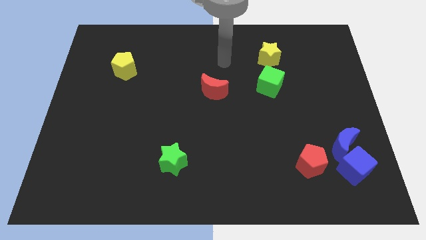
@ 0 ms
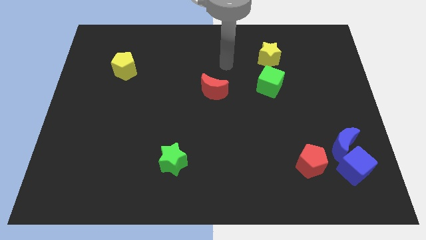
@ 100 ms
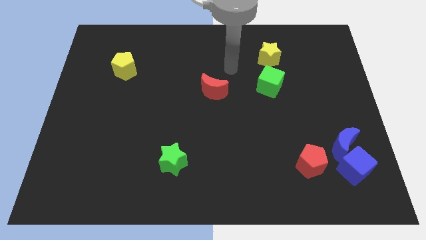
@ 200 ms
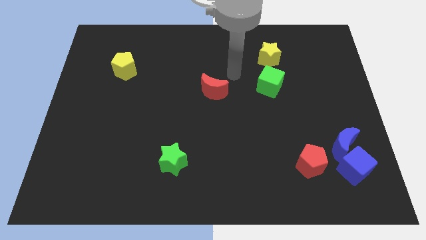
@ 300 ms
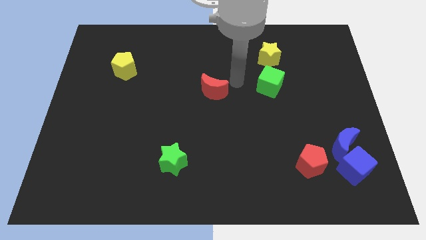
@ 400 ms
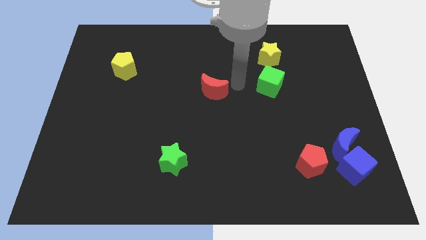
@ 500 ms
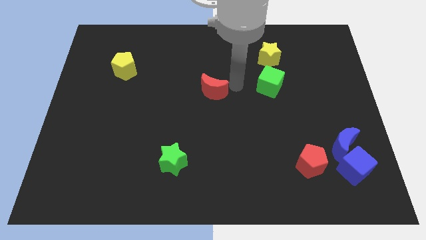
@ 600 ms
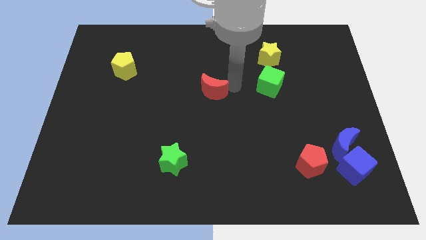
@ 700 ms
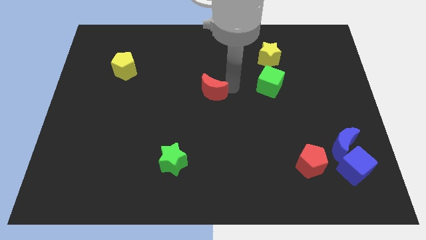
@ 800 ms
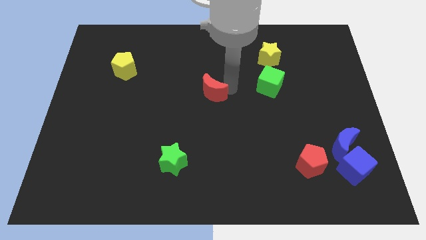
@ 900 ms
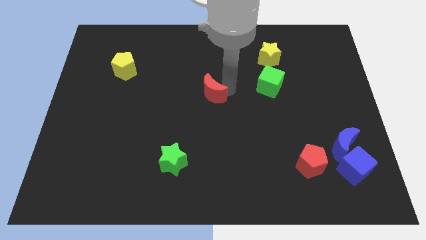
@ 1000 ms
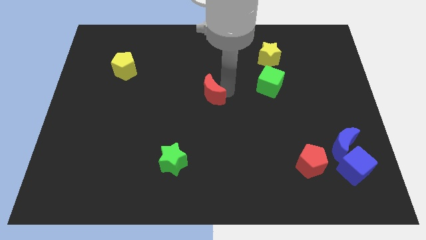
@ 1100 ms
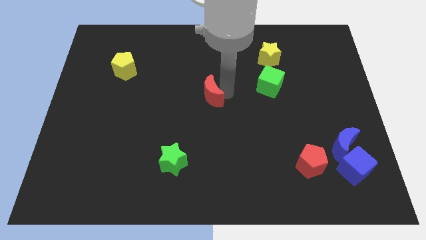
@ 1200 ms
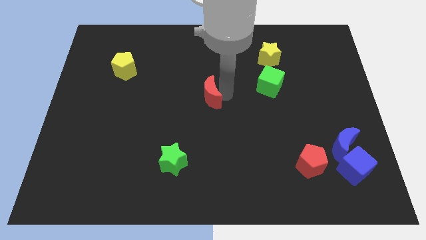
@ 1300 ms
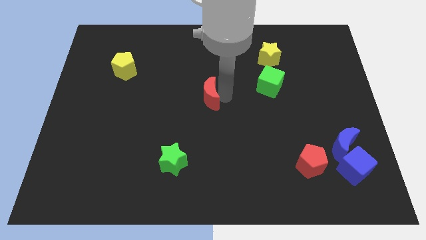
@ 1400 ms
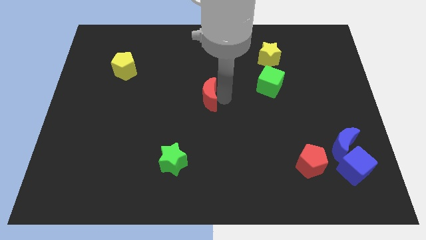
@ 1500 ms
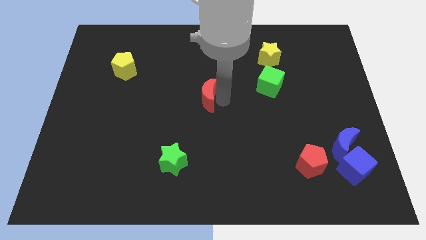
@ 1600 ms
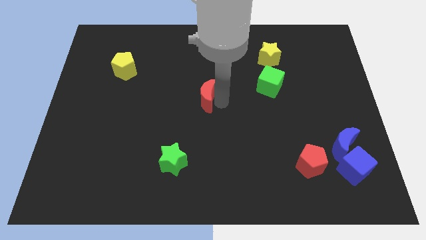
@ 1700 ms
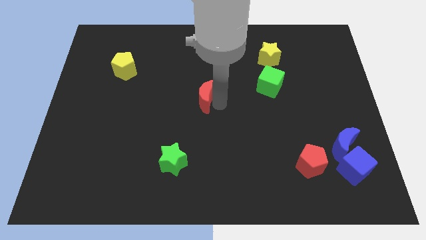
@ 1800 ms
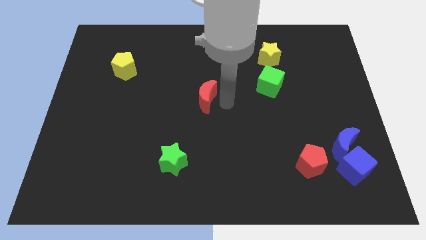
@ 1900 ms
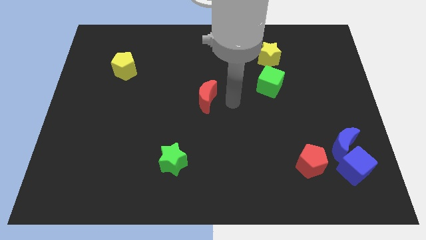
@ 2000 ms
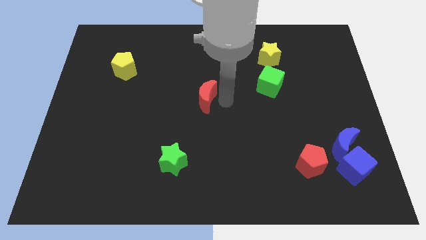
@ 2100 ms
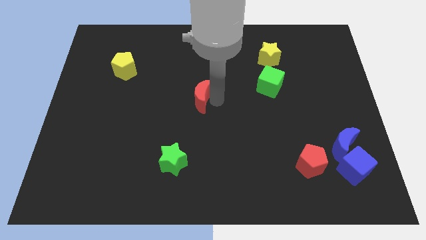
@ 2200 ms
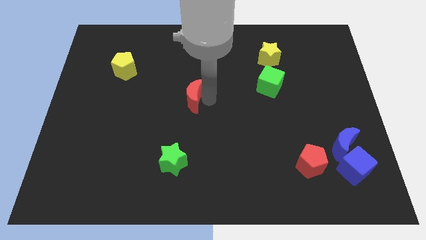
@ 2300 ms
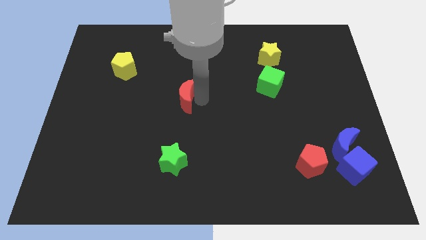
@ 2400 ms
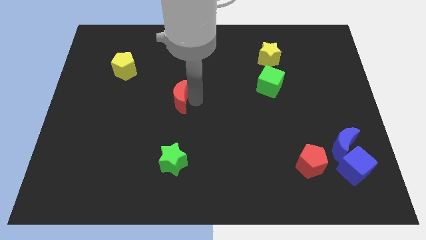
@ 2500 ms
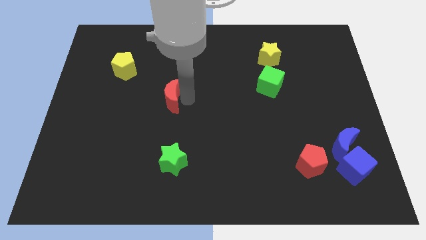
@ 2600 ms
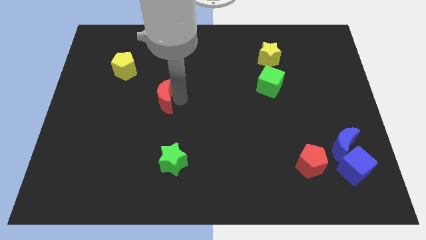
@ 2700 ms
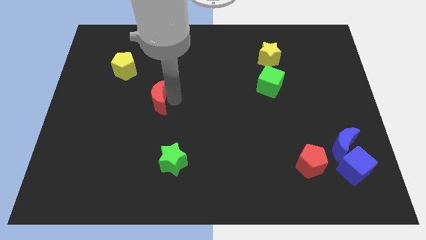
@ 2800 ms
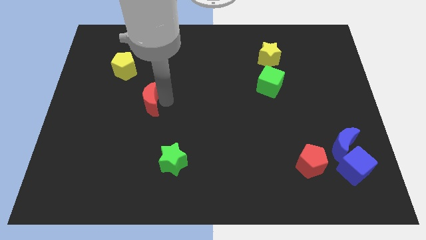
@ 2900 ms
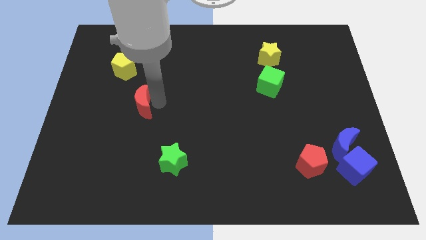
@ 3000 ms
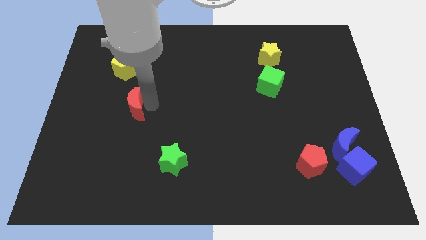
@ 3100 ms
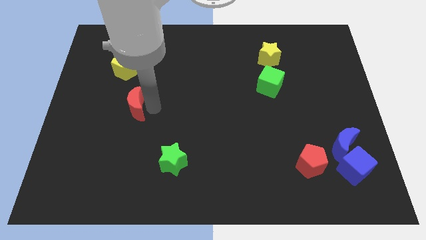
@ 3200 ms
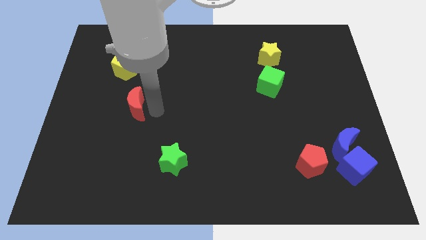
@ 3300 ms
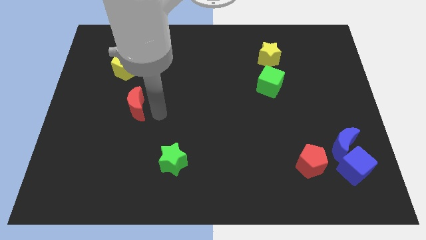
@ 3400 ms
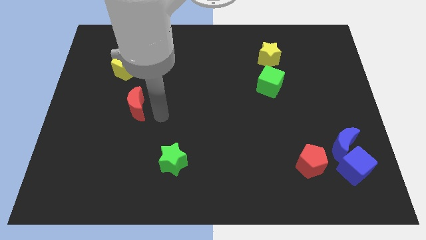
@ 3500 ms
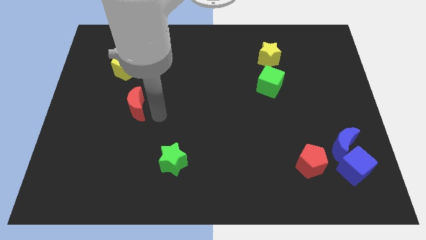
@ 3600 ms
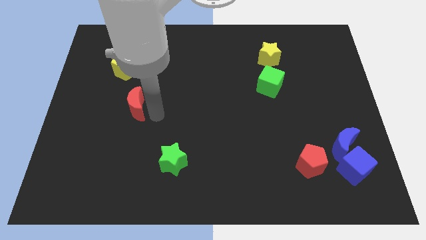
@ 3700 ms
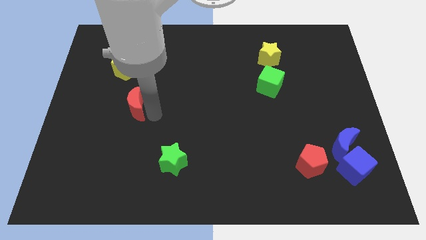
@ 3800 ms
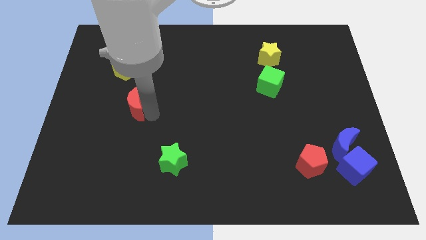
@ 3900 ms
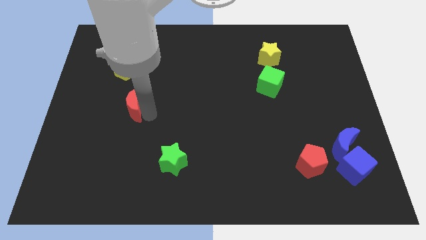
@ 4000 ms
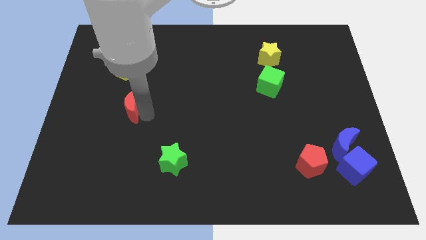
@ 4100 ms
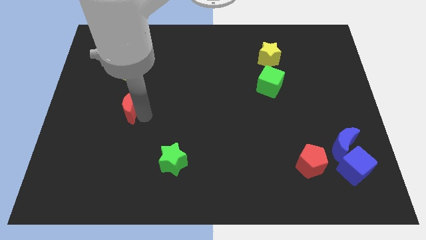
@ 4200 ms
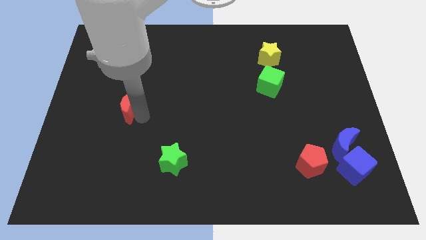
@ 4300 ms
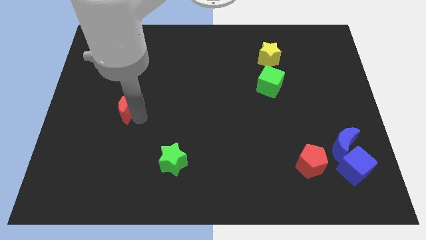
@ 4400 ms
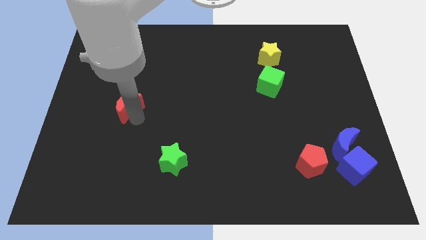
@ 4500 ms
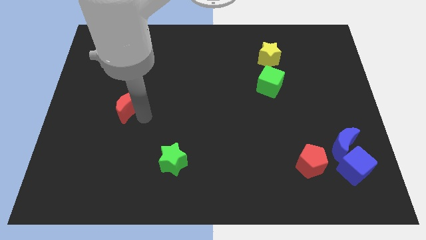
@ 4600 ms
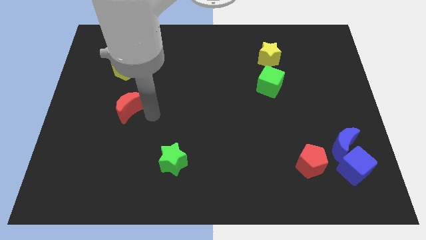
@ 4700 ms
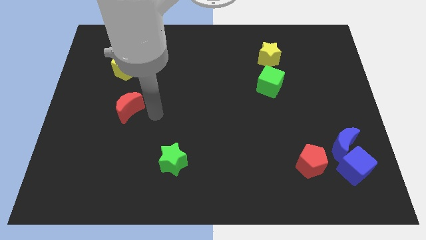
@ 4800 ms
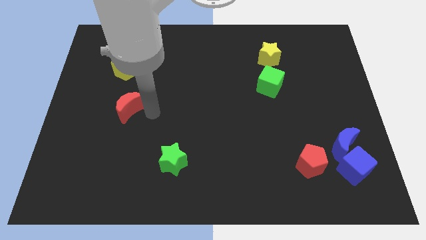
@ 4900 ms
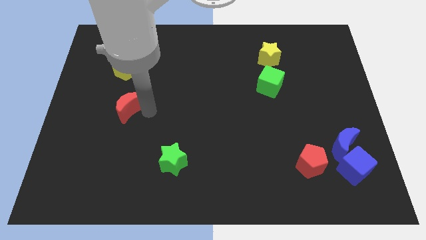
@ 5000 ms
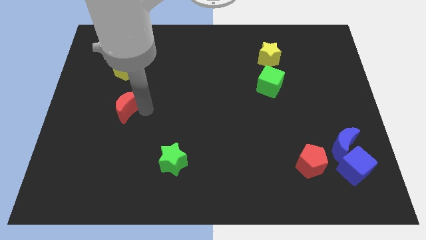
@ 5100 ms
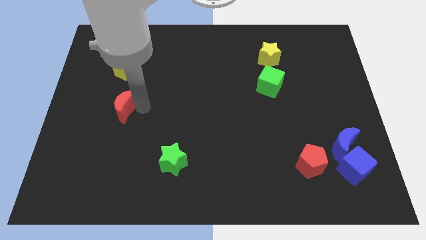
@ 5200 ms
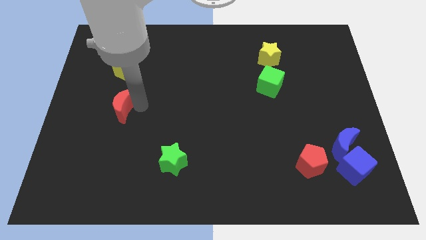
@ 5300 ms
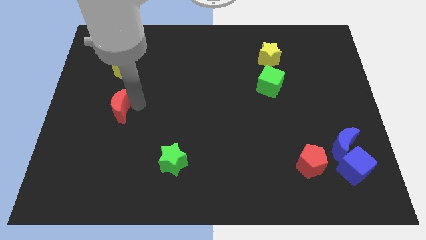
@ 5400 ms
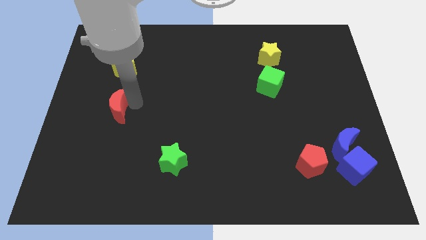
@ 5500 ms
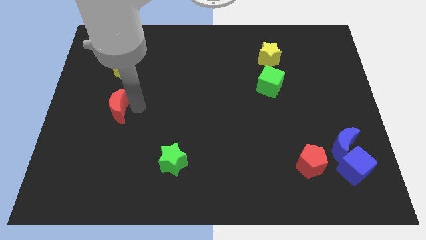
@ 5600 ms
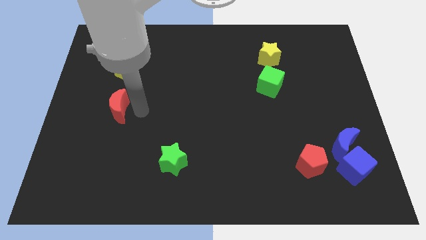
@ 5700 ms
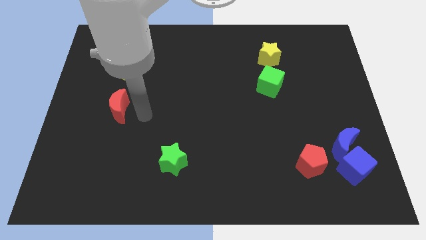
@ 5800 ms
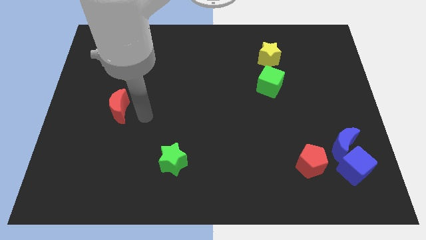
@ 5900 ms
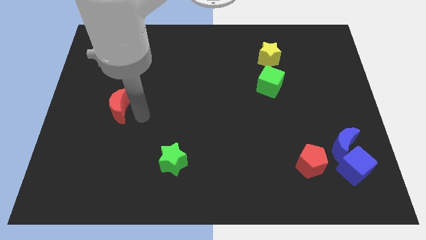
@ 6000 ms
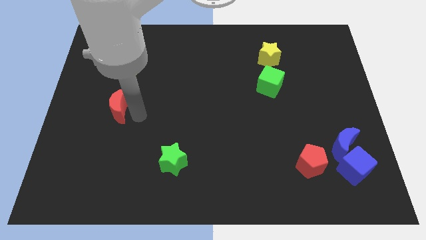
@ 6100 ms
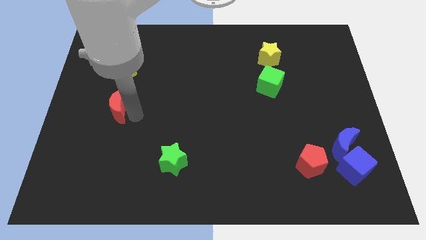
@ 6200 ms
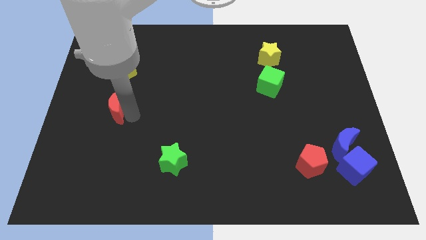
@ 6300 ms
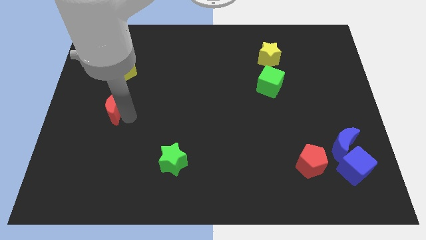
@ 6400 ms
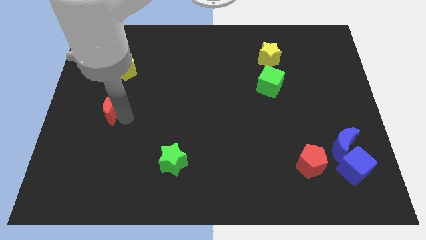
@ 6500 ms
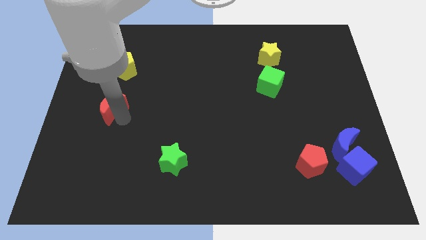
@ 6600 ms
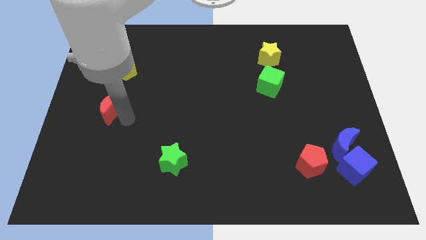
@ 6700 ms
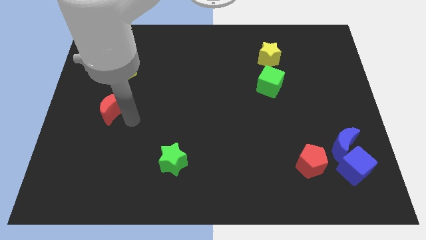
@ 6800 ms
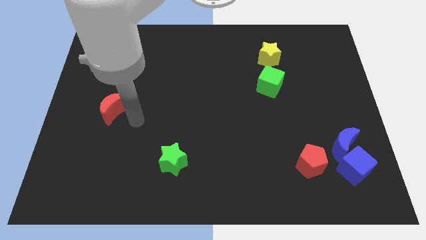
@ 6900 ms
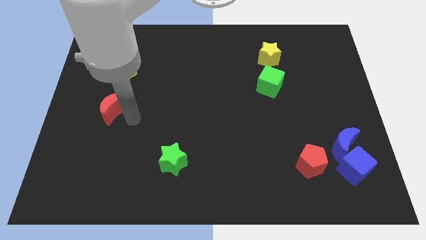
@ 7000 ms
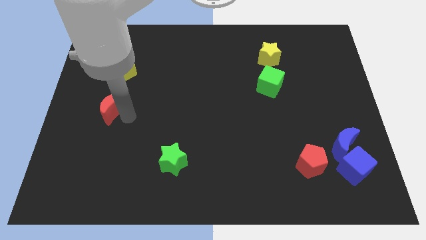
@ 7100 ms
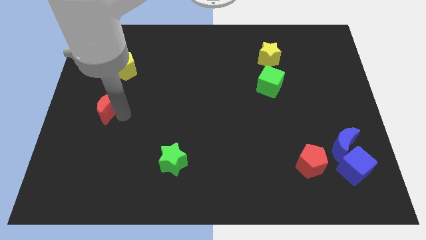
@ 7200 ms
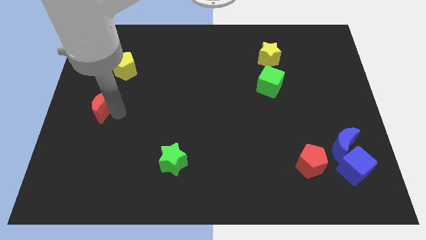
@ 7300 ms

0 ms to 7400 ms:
move the red moon to the left side
